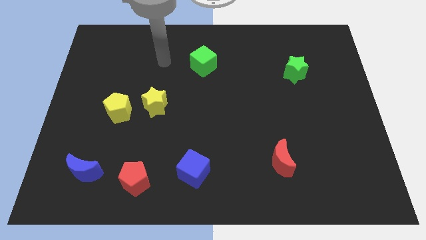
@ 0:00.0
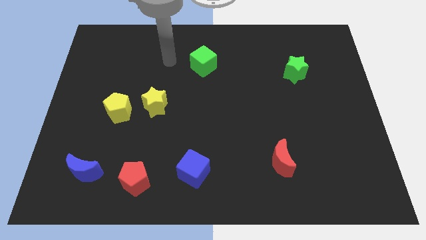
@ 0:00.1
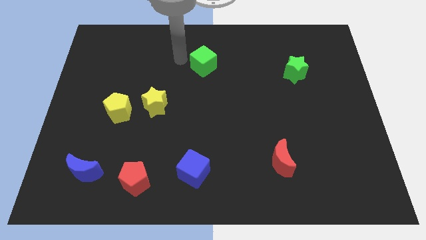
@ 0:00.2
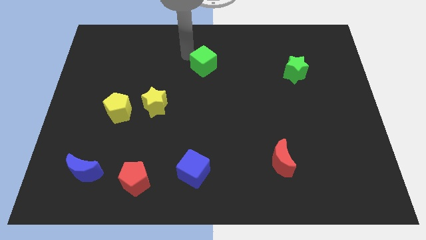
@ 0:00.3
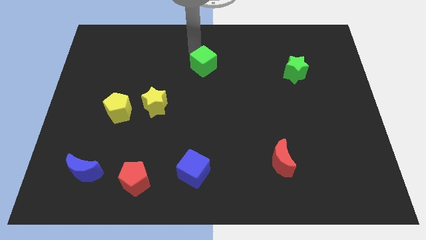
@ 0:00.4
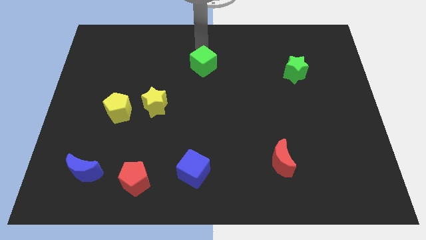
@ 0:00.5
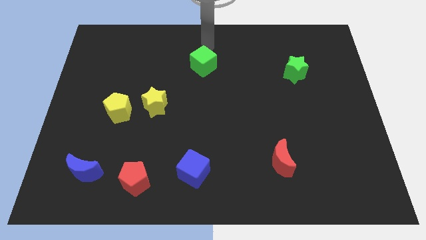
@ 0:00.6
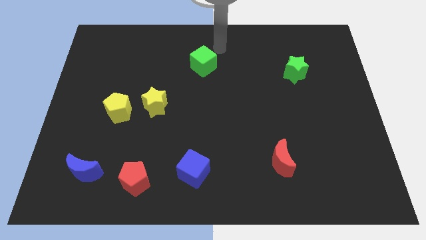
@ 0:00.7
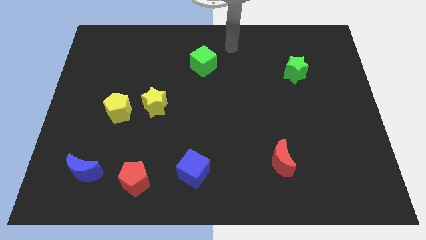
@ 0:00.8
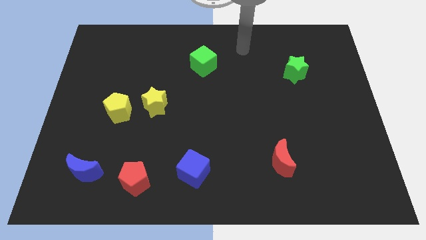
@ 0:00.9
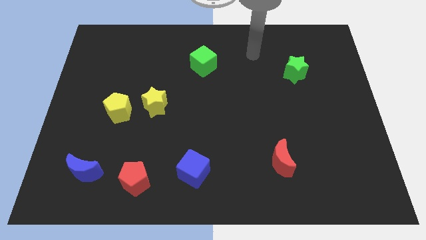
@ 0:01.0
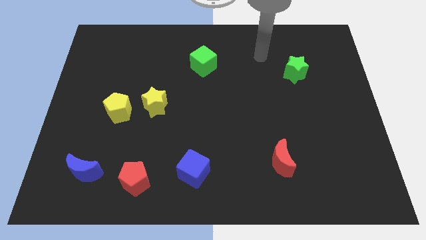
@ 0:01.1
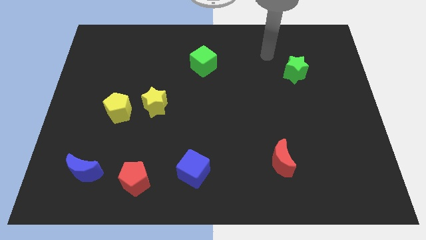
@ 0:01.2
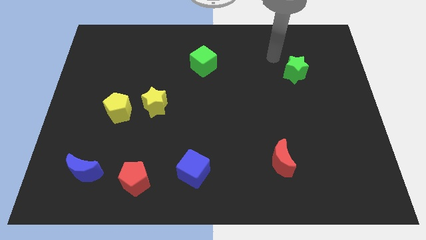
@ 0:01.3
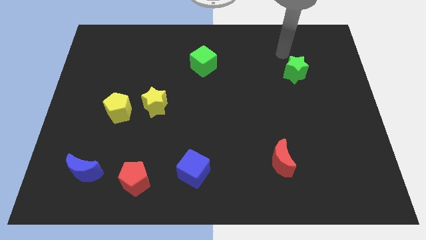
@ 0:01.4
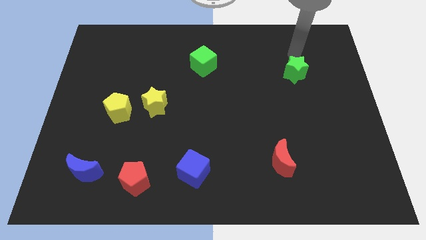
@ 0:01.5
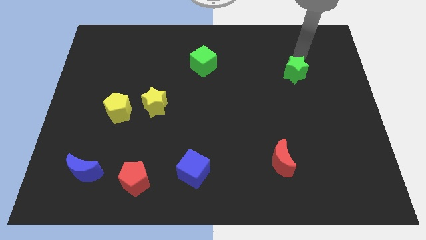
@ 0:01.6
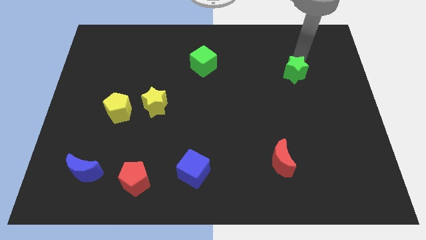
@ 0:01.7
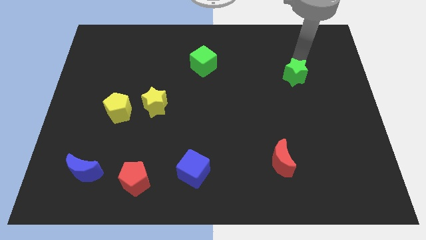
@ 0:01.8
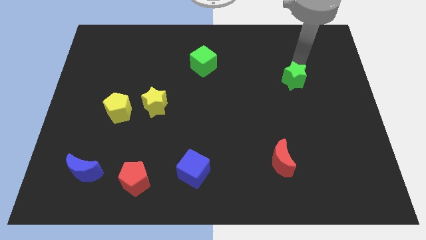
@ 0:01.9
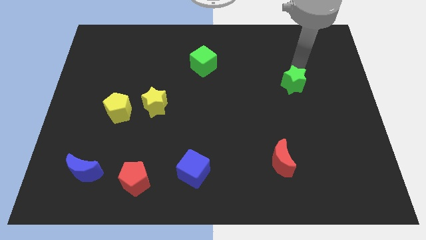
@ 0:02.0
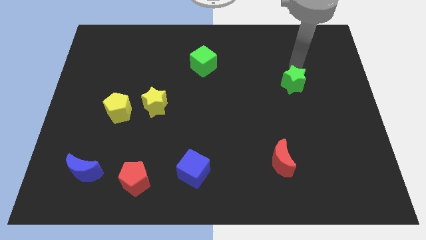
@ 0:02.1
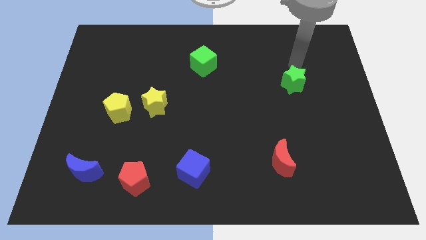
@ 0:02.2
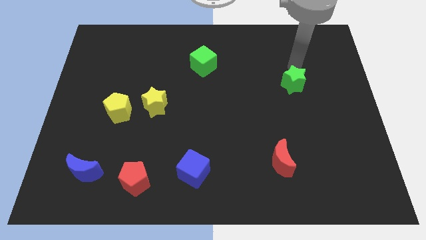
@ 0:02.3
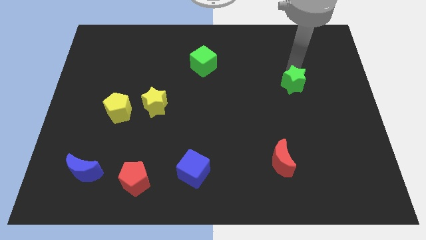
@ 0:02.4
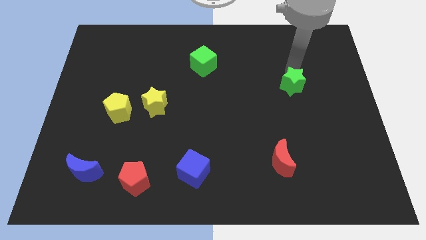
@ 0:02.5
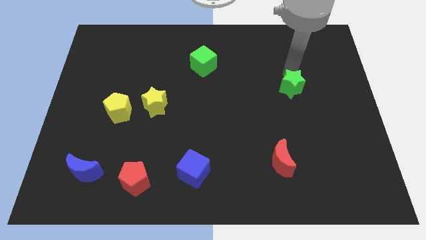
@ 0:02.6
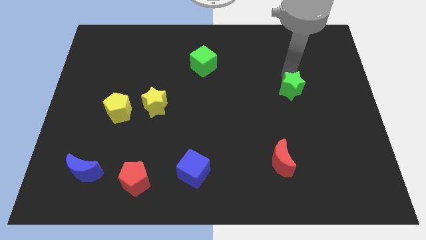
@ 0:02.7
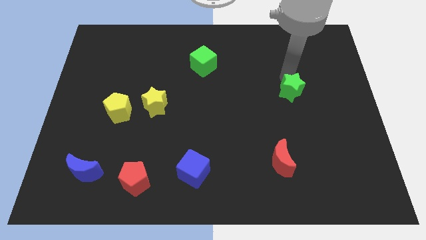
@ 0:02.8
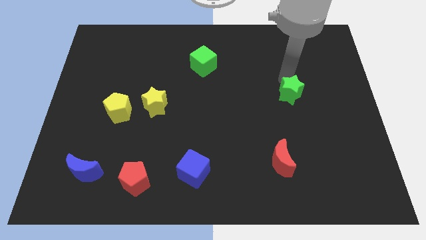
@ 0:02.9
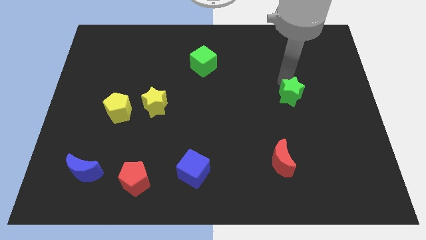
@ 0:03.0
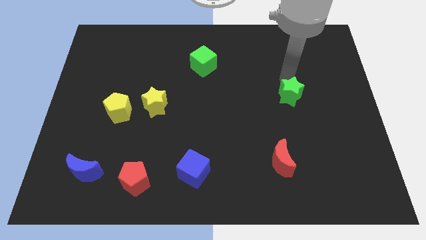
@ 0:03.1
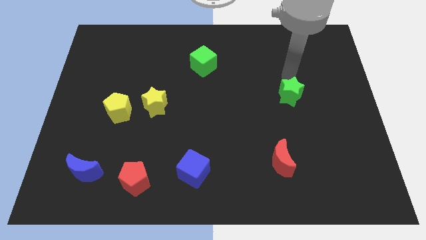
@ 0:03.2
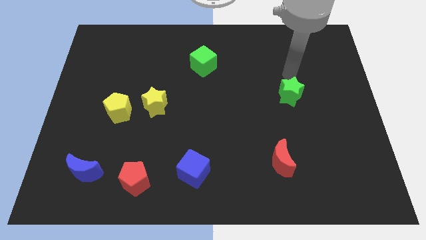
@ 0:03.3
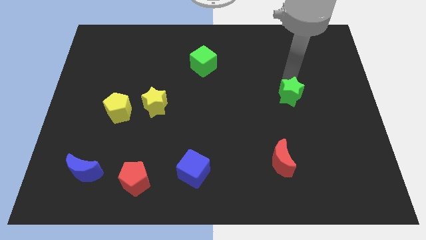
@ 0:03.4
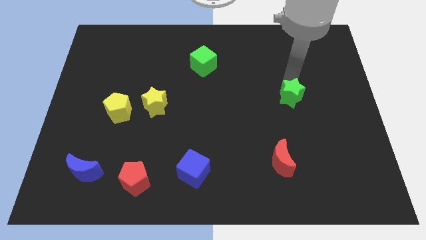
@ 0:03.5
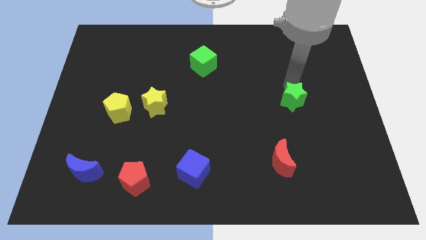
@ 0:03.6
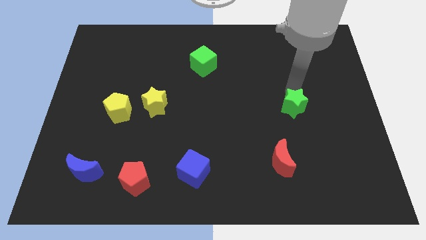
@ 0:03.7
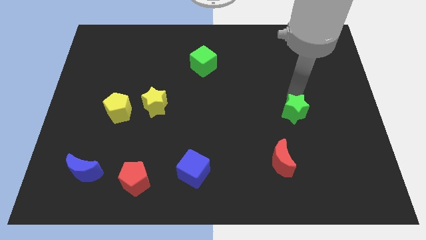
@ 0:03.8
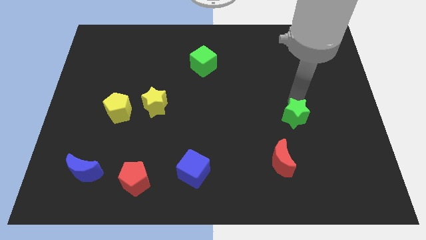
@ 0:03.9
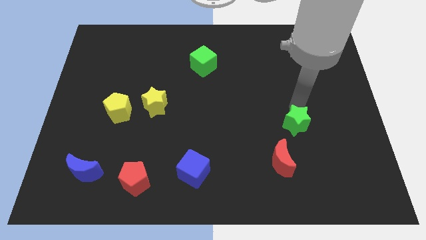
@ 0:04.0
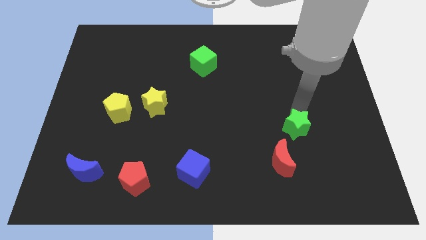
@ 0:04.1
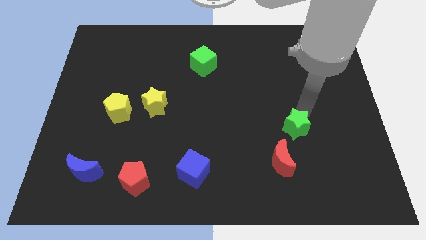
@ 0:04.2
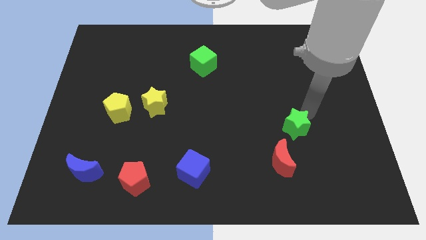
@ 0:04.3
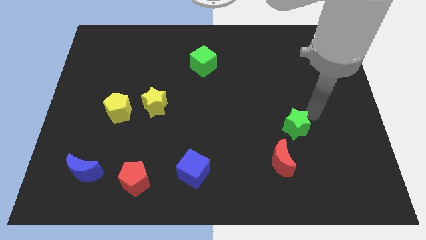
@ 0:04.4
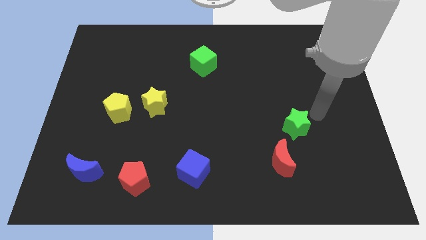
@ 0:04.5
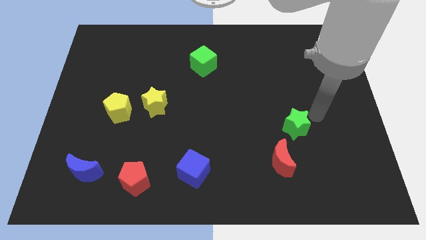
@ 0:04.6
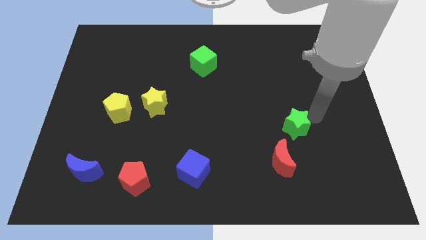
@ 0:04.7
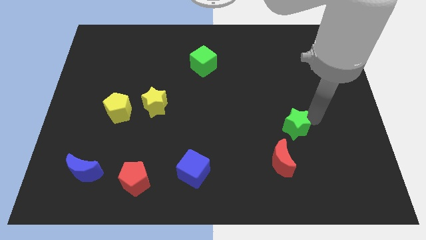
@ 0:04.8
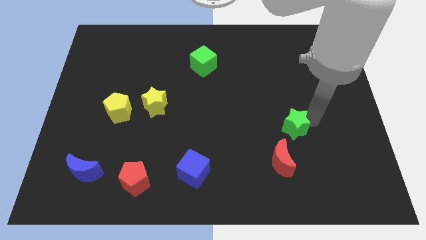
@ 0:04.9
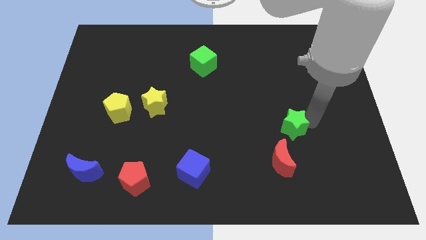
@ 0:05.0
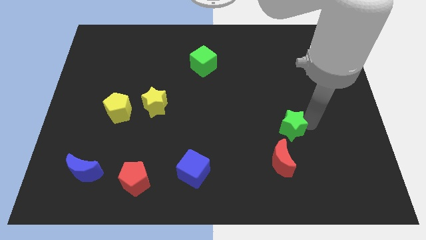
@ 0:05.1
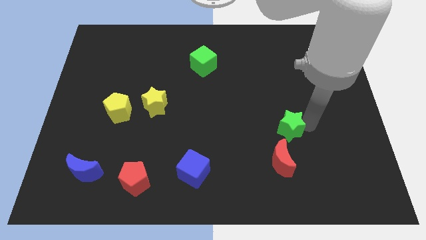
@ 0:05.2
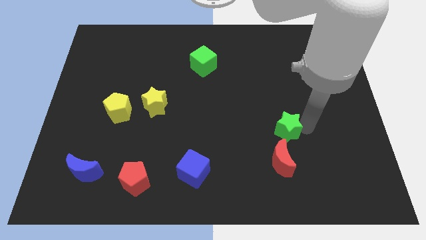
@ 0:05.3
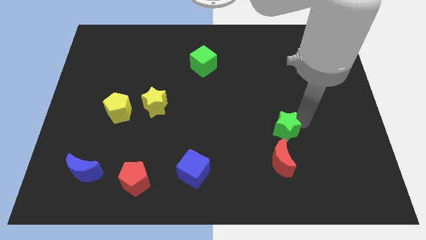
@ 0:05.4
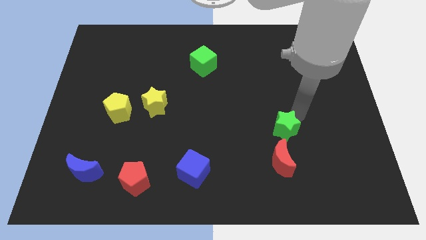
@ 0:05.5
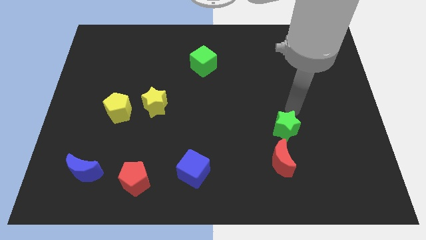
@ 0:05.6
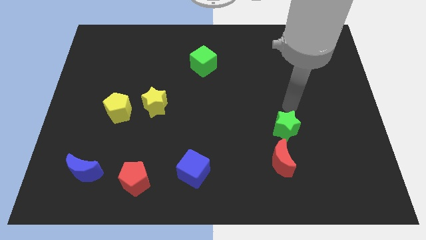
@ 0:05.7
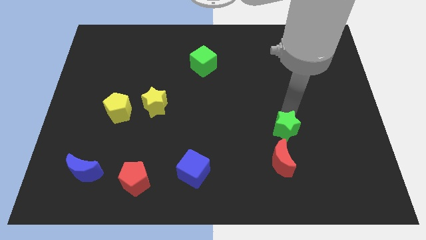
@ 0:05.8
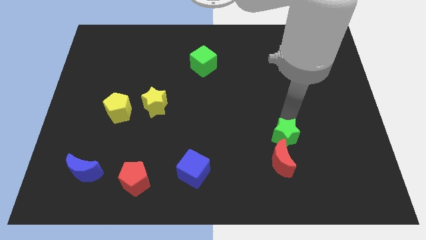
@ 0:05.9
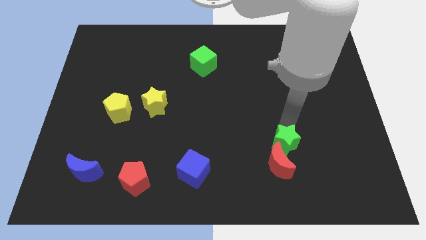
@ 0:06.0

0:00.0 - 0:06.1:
move the green star to the red moon
